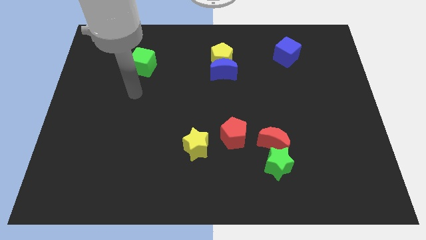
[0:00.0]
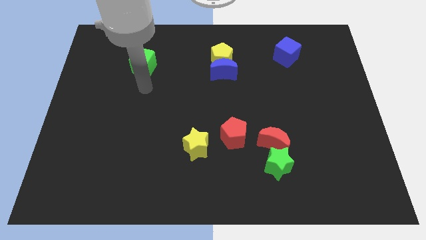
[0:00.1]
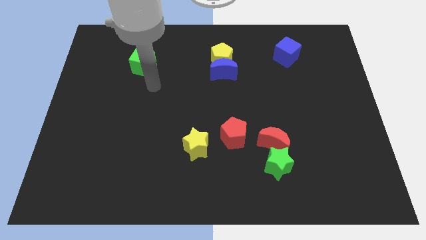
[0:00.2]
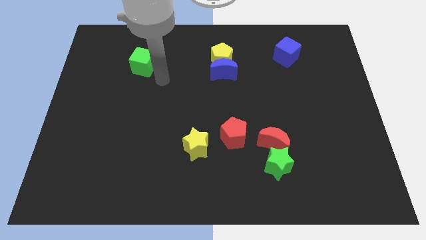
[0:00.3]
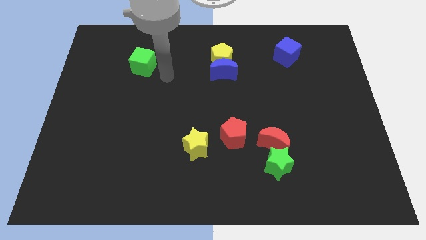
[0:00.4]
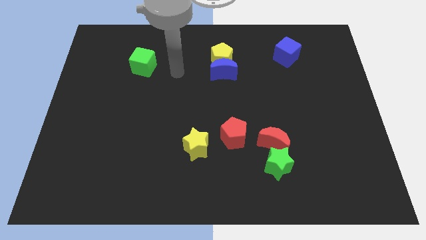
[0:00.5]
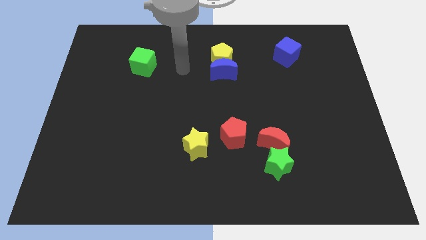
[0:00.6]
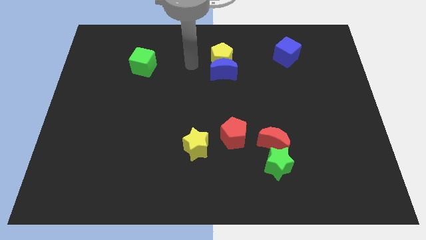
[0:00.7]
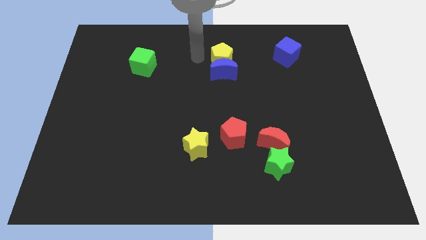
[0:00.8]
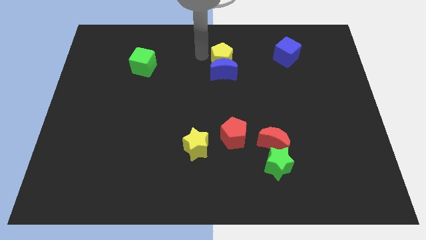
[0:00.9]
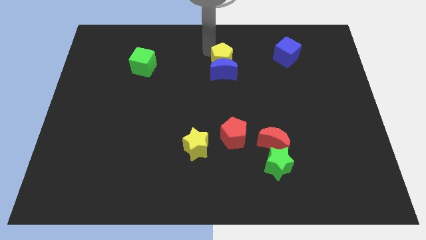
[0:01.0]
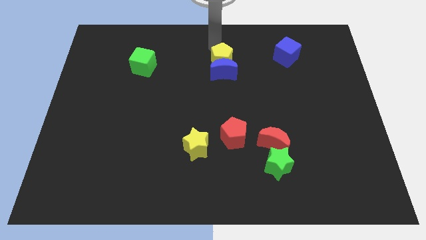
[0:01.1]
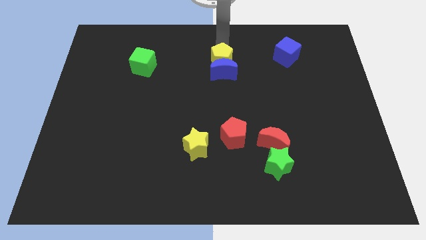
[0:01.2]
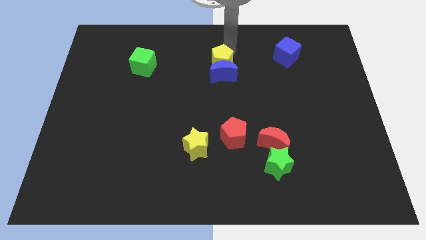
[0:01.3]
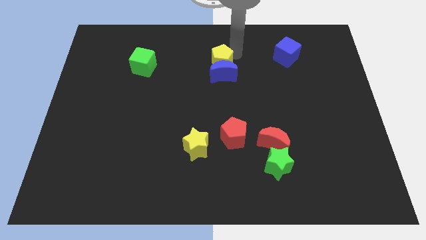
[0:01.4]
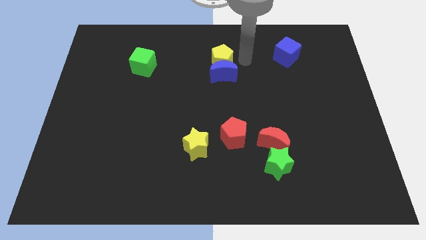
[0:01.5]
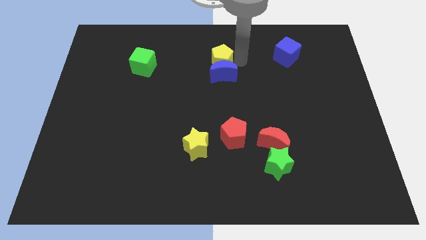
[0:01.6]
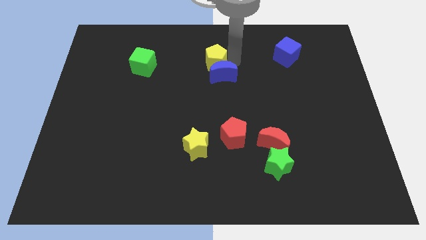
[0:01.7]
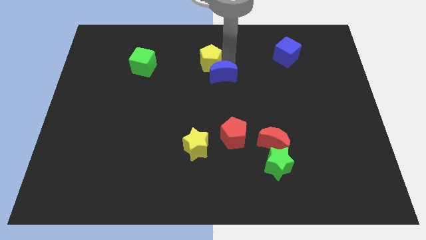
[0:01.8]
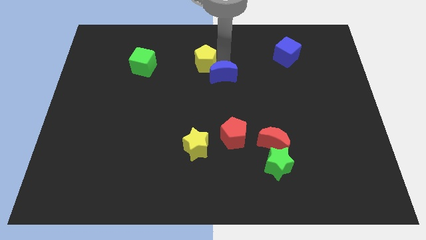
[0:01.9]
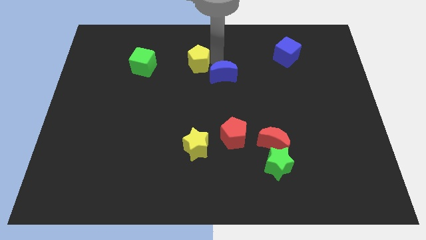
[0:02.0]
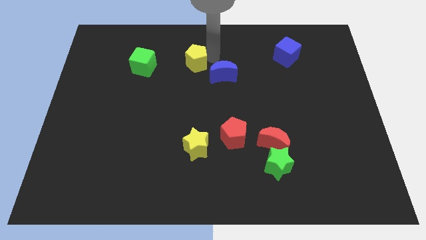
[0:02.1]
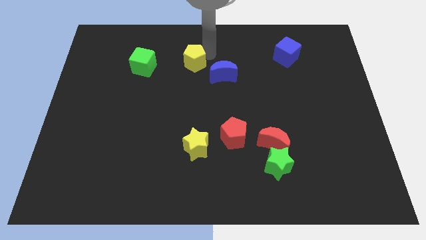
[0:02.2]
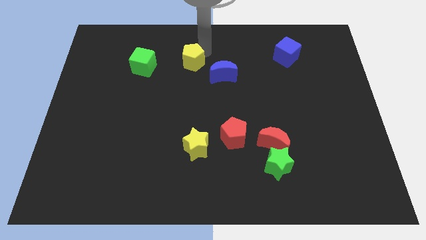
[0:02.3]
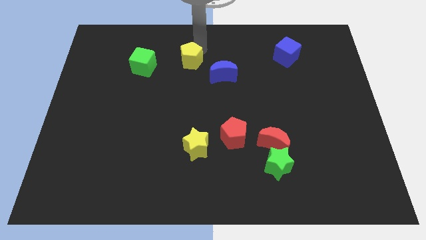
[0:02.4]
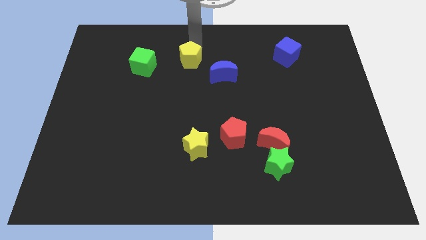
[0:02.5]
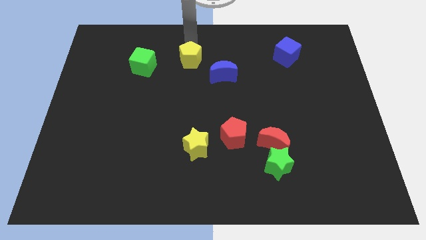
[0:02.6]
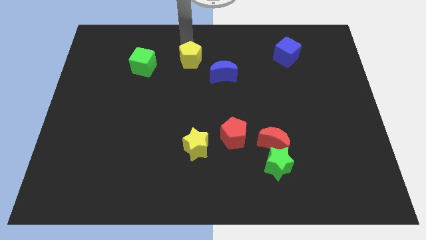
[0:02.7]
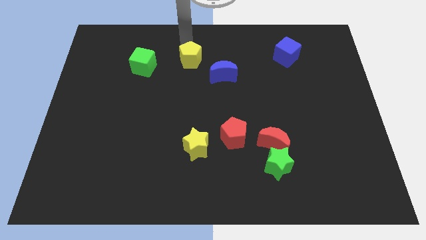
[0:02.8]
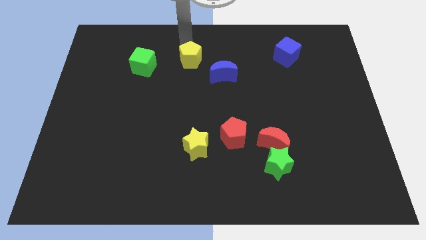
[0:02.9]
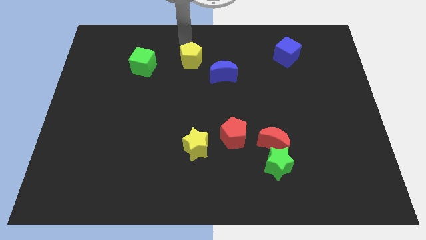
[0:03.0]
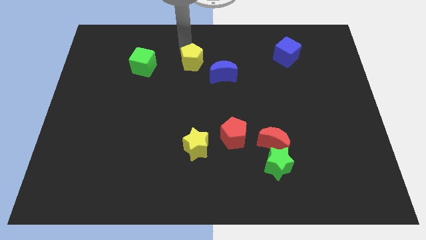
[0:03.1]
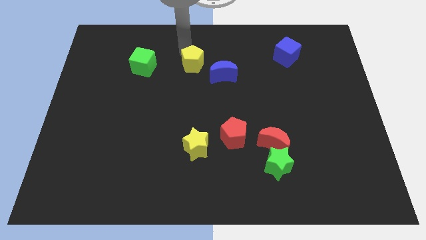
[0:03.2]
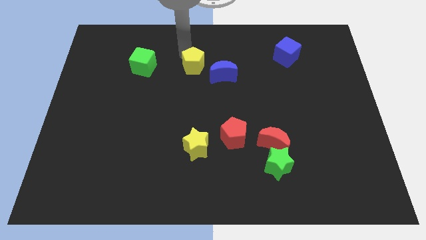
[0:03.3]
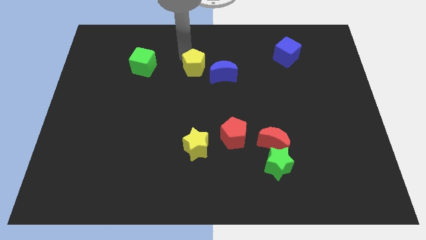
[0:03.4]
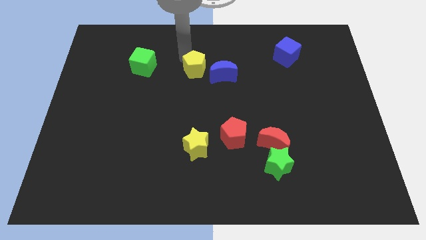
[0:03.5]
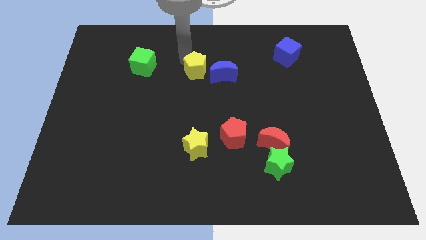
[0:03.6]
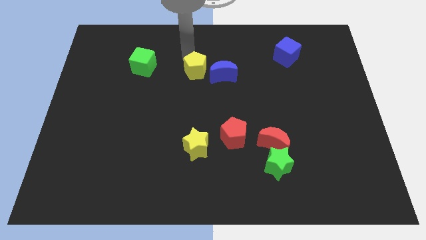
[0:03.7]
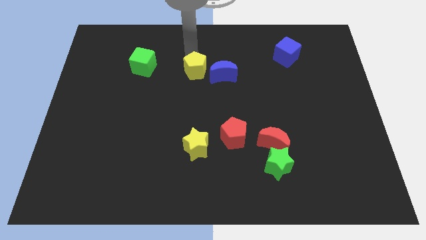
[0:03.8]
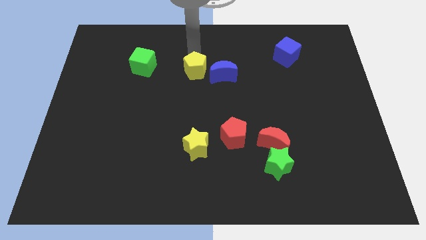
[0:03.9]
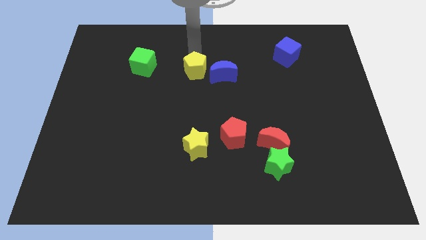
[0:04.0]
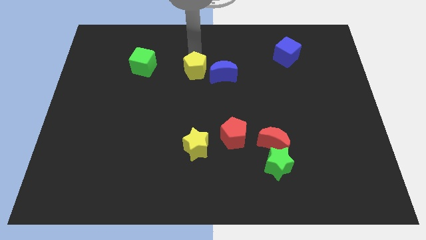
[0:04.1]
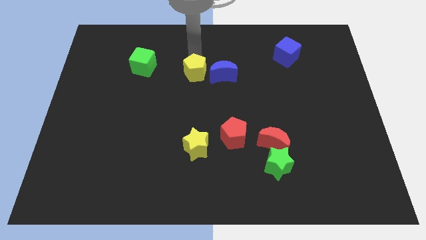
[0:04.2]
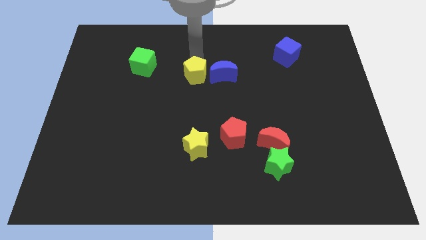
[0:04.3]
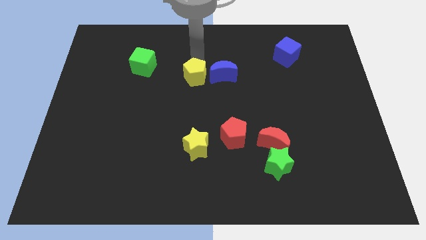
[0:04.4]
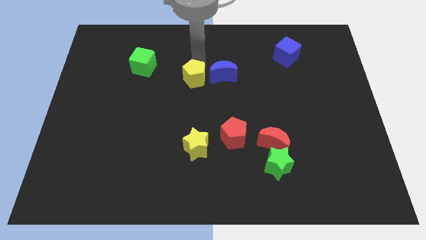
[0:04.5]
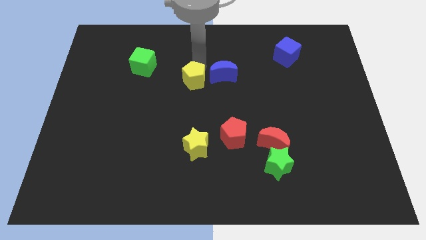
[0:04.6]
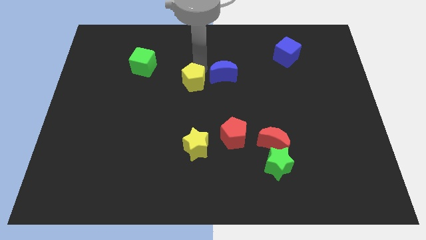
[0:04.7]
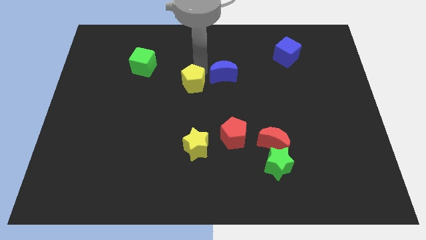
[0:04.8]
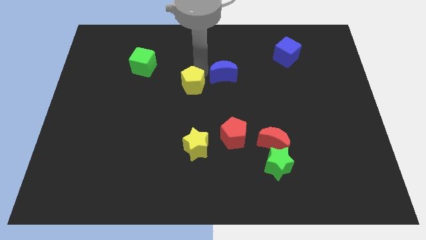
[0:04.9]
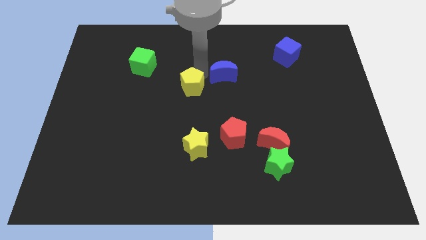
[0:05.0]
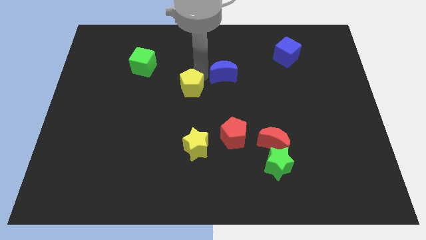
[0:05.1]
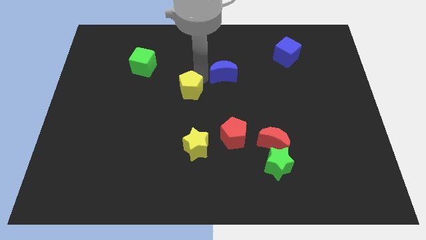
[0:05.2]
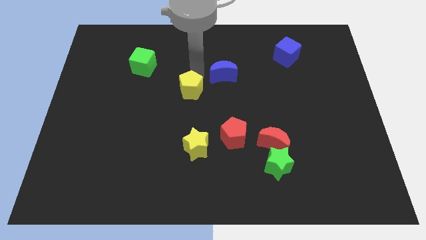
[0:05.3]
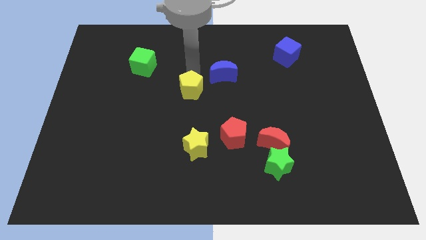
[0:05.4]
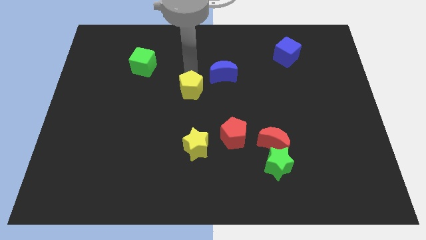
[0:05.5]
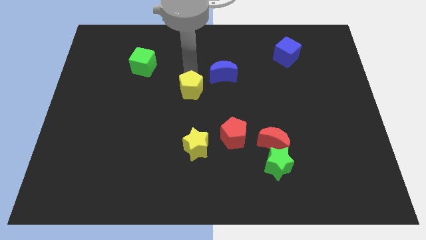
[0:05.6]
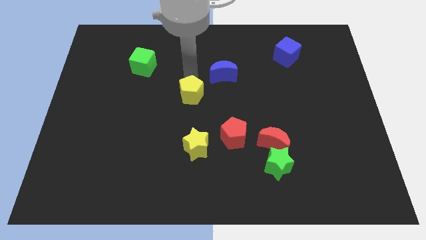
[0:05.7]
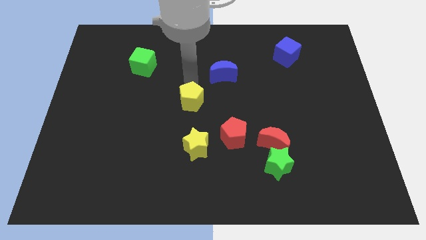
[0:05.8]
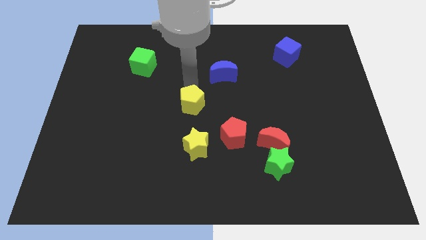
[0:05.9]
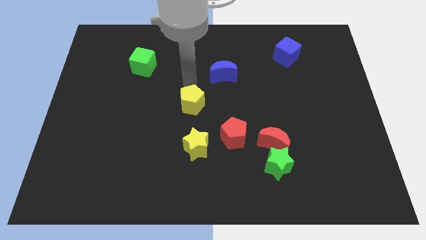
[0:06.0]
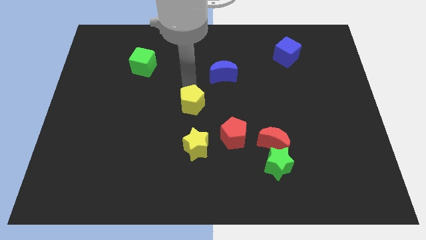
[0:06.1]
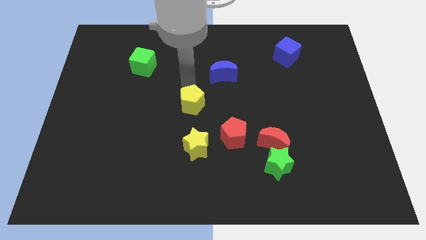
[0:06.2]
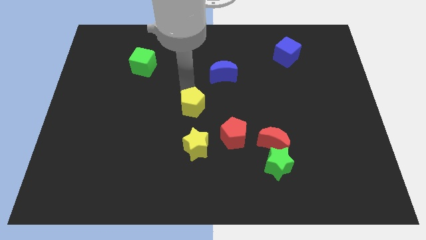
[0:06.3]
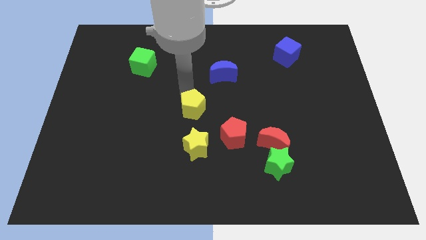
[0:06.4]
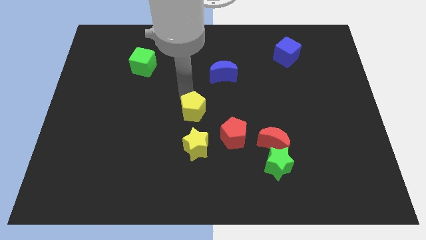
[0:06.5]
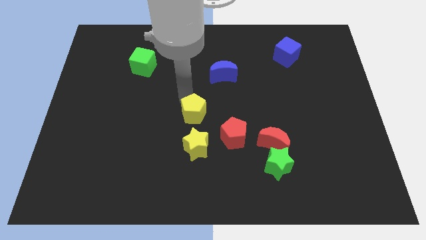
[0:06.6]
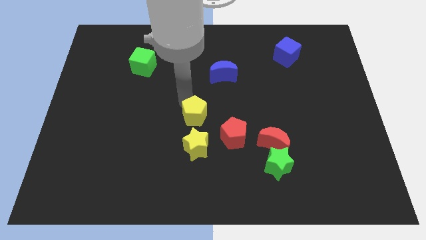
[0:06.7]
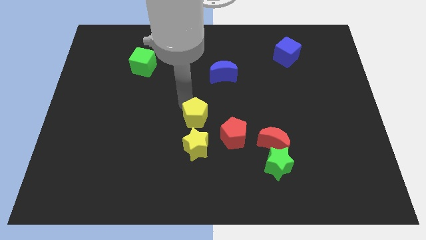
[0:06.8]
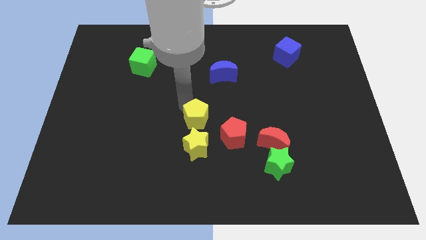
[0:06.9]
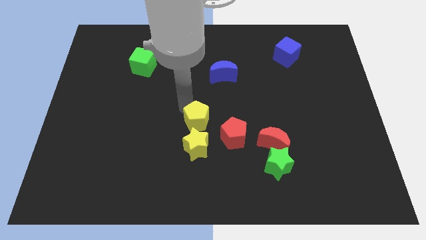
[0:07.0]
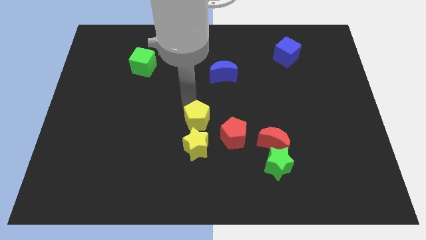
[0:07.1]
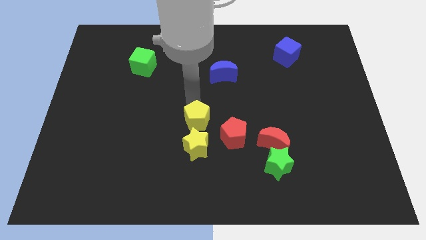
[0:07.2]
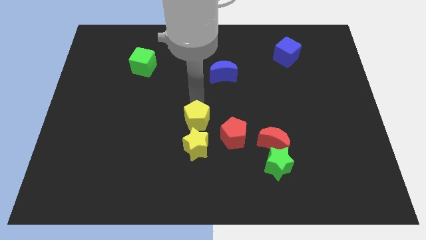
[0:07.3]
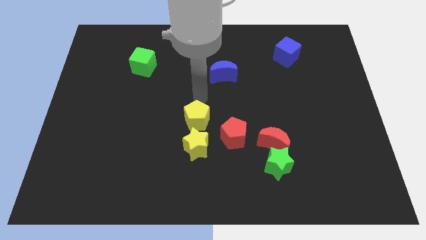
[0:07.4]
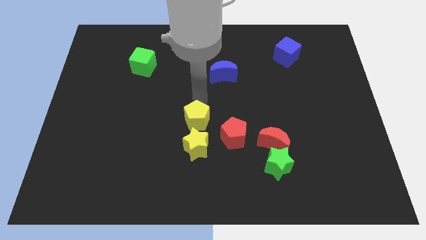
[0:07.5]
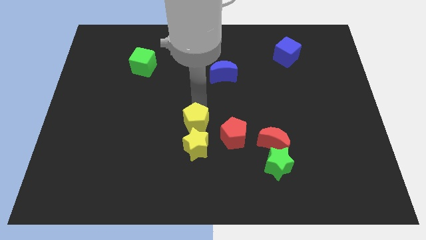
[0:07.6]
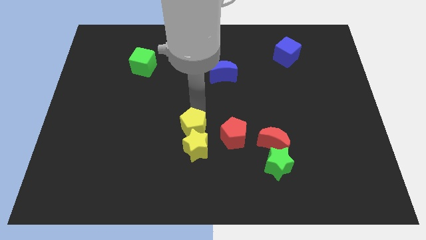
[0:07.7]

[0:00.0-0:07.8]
move the yellow pentagon close to the yellow star
